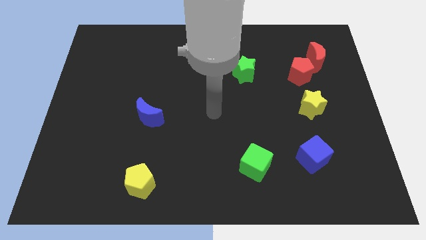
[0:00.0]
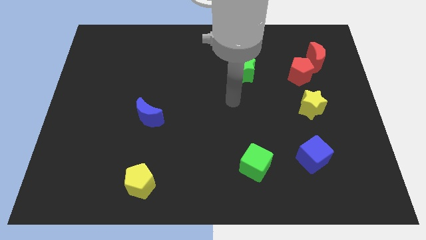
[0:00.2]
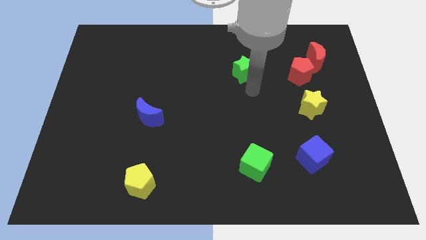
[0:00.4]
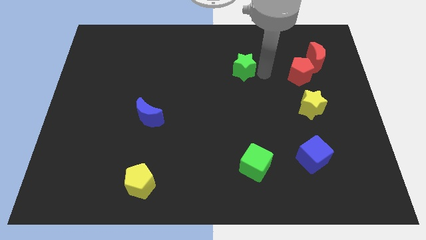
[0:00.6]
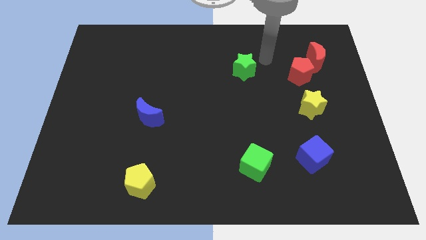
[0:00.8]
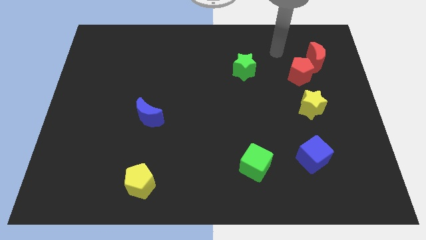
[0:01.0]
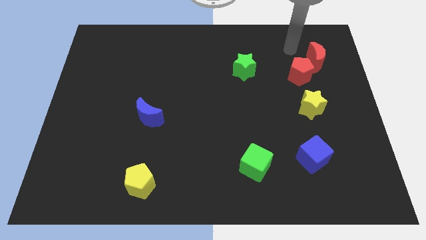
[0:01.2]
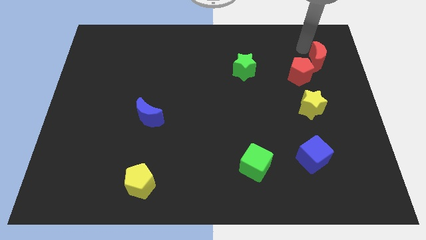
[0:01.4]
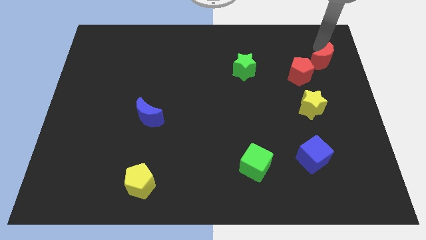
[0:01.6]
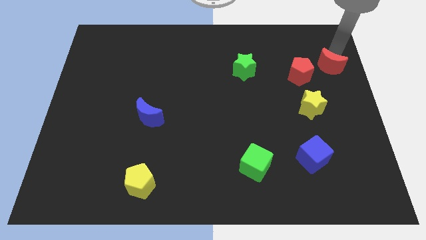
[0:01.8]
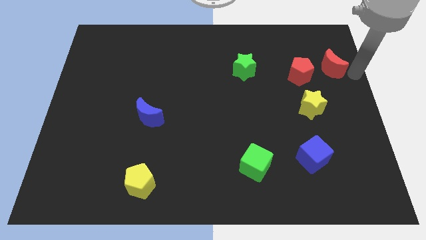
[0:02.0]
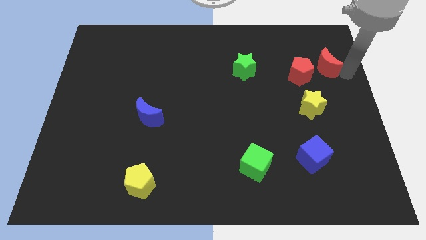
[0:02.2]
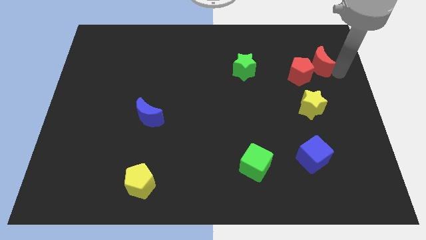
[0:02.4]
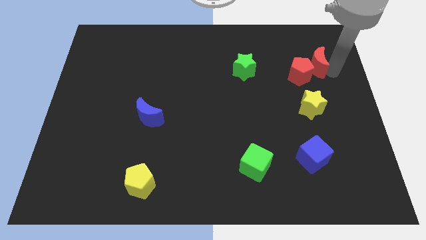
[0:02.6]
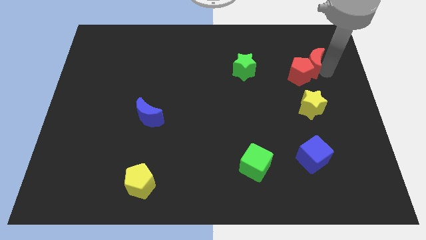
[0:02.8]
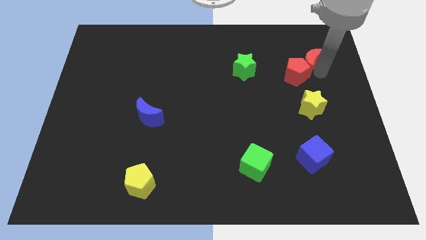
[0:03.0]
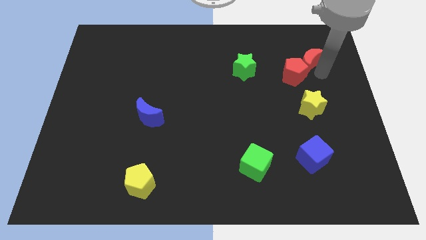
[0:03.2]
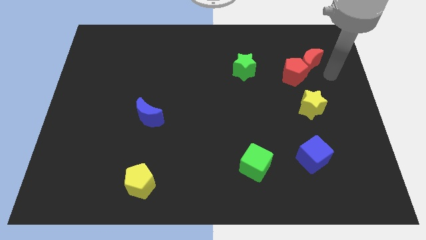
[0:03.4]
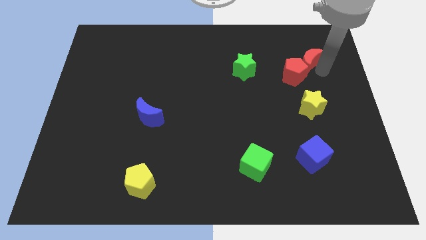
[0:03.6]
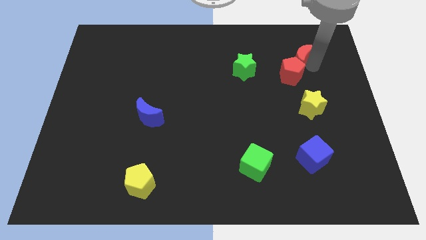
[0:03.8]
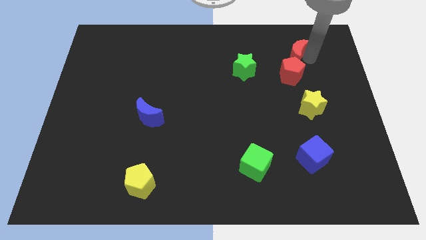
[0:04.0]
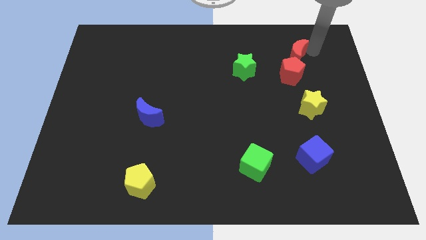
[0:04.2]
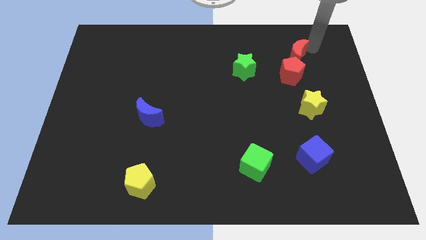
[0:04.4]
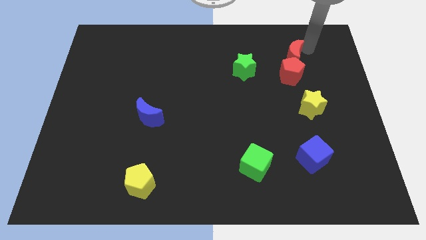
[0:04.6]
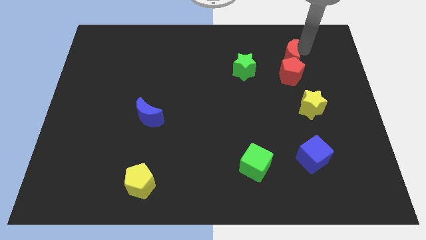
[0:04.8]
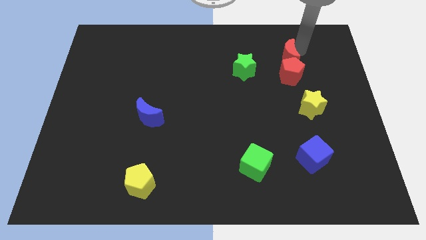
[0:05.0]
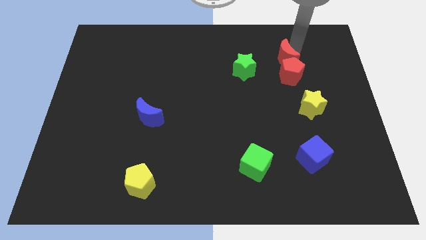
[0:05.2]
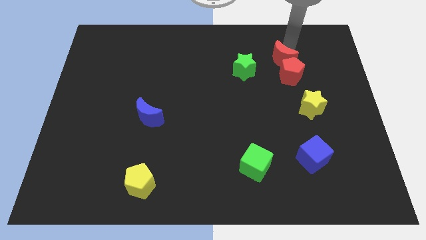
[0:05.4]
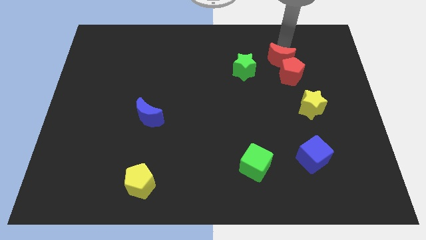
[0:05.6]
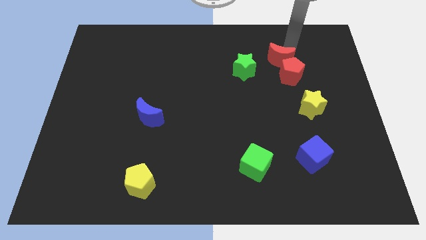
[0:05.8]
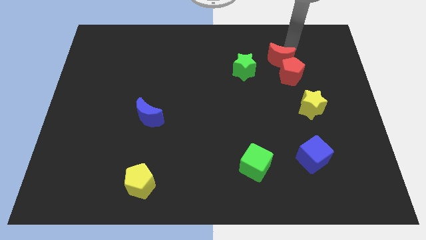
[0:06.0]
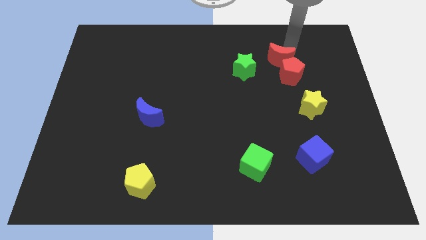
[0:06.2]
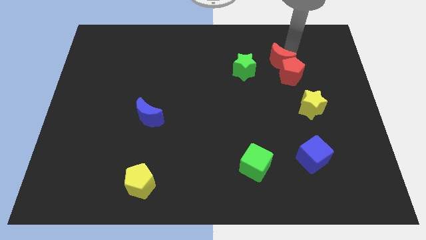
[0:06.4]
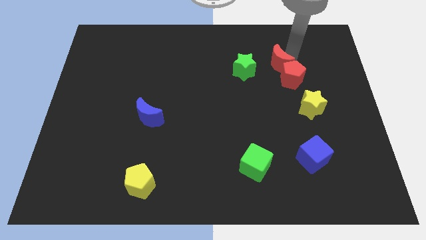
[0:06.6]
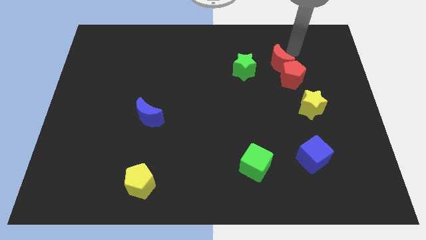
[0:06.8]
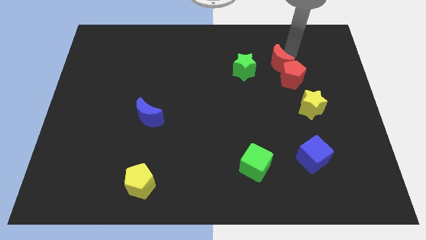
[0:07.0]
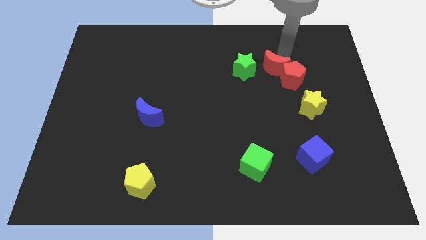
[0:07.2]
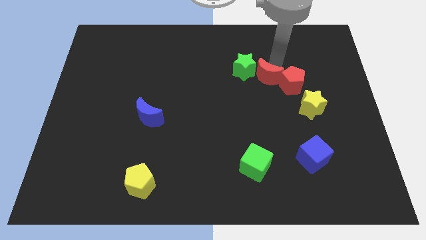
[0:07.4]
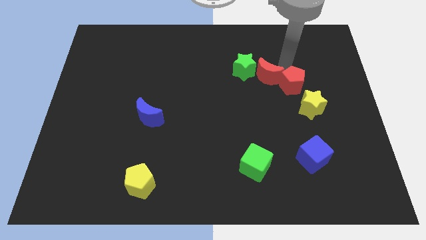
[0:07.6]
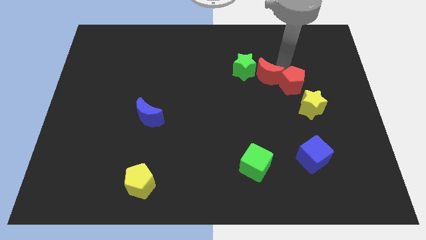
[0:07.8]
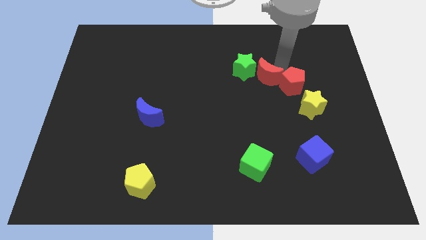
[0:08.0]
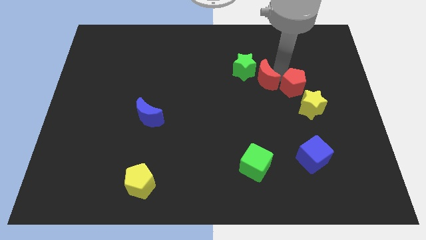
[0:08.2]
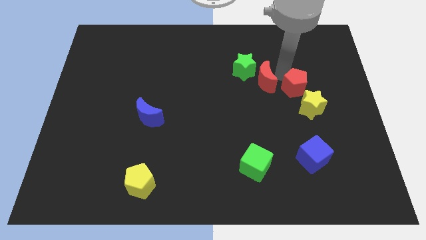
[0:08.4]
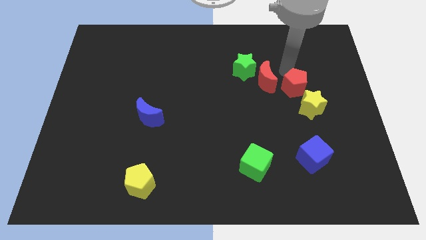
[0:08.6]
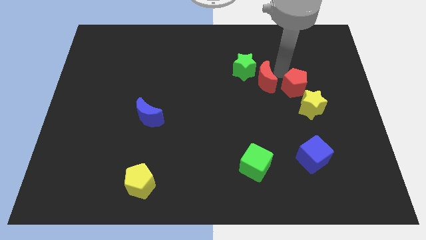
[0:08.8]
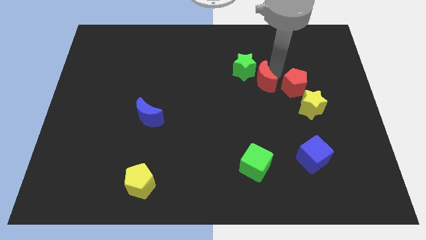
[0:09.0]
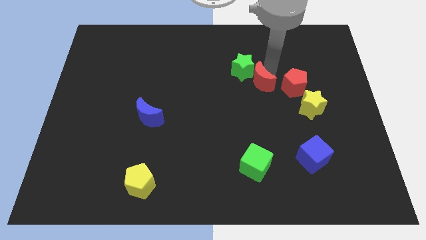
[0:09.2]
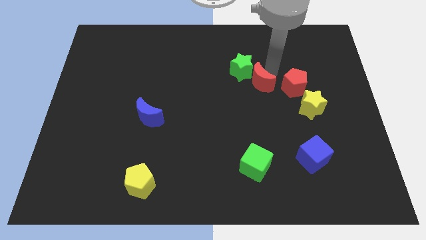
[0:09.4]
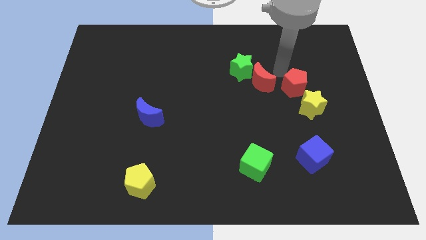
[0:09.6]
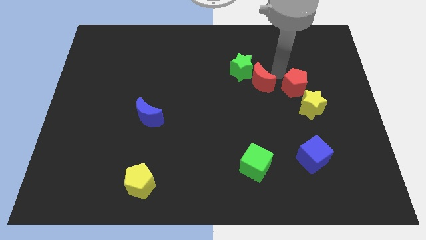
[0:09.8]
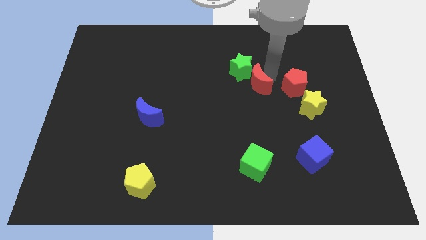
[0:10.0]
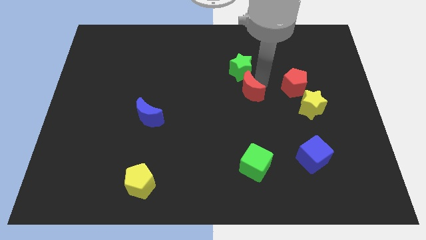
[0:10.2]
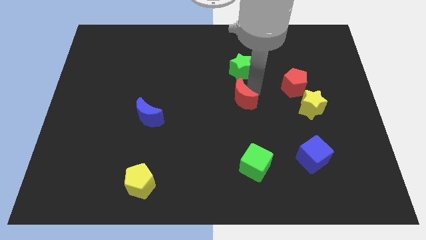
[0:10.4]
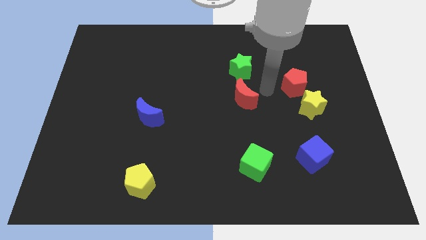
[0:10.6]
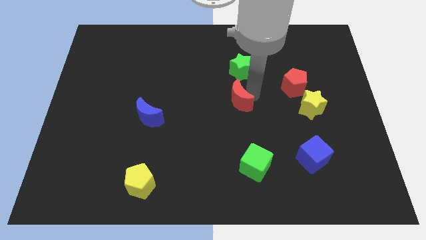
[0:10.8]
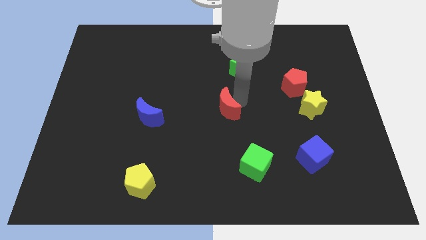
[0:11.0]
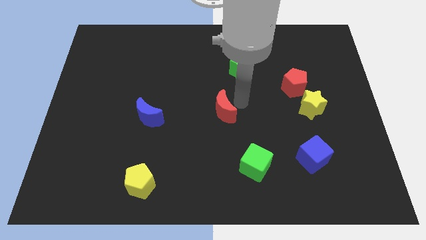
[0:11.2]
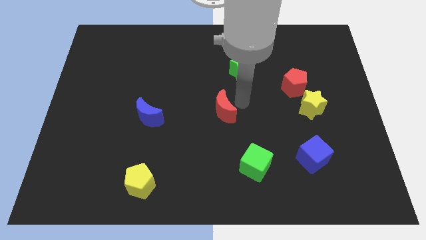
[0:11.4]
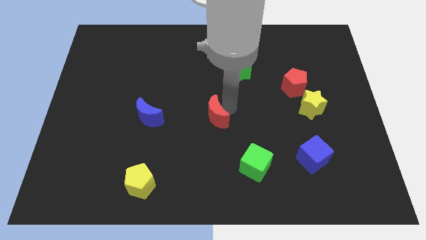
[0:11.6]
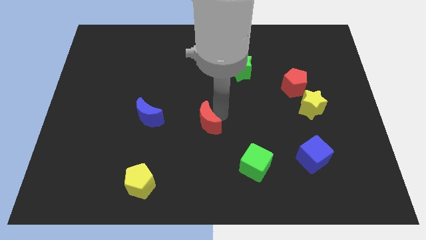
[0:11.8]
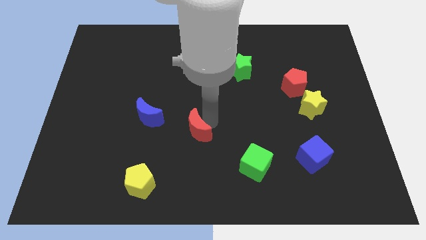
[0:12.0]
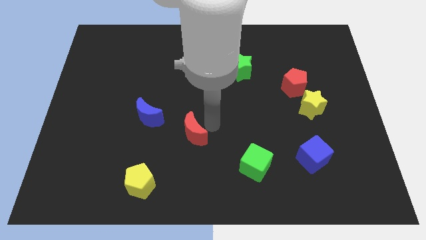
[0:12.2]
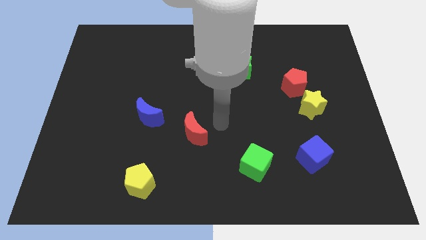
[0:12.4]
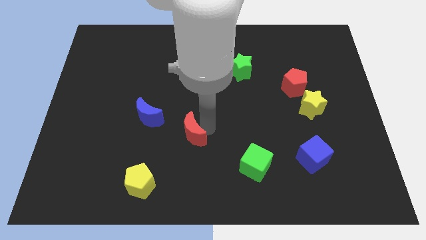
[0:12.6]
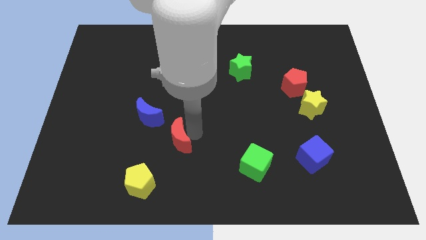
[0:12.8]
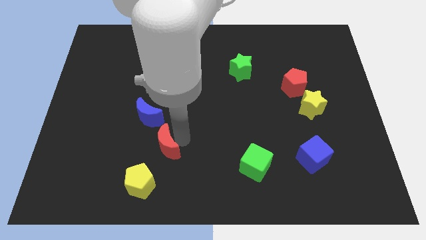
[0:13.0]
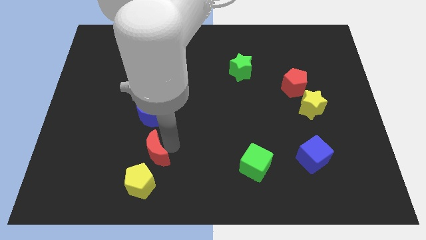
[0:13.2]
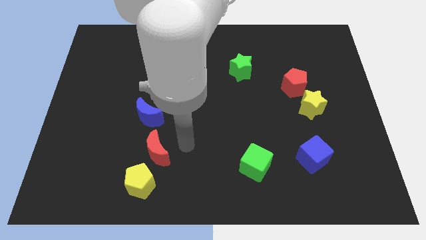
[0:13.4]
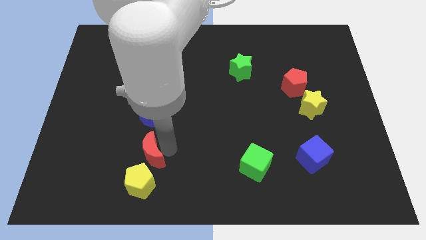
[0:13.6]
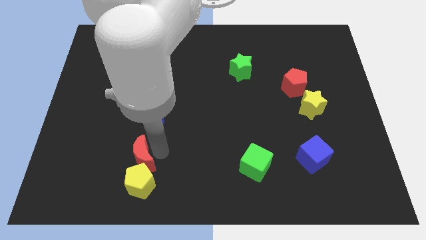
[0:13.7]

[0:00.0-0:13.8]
move the red moon diagonally up and to the left of the yellow pentagon

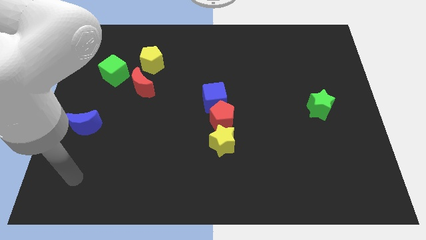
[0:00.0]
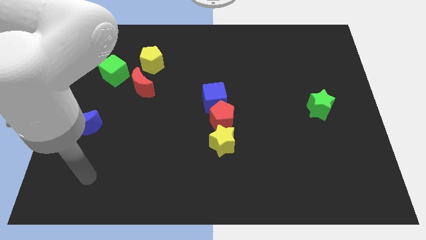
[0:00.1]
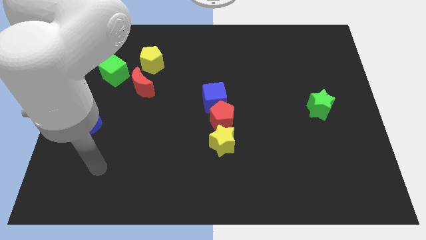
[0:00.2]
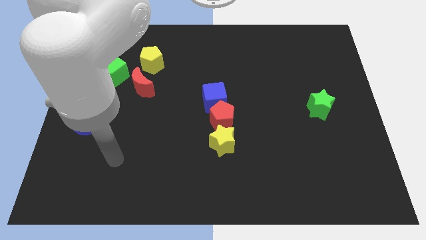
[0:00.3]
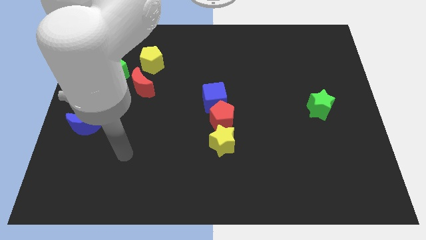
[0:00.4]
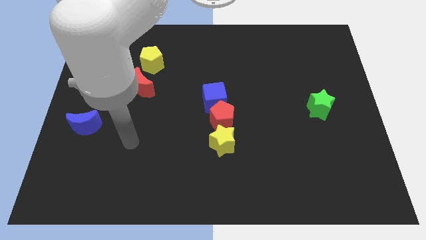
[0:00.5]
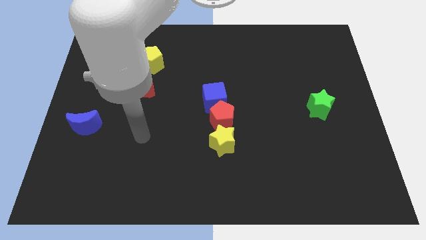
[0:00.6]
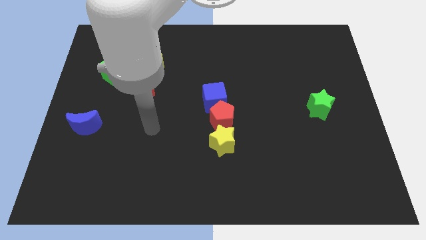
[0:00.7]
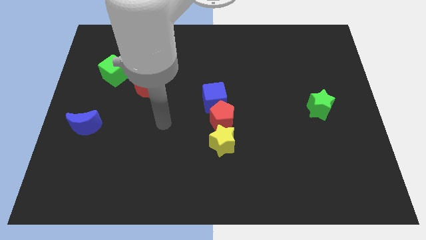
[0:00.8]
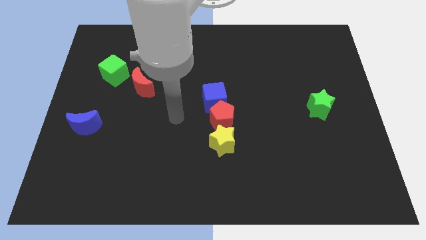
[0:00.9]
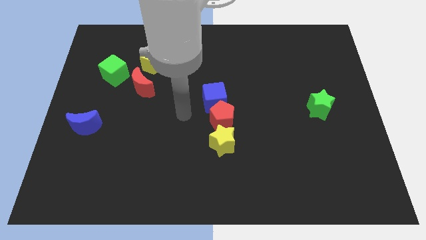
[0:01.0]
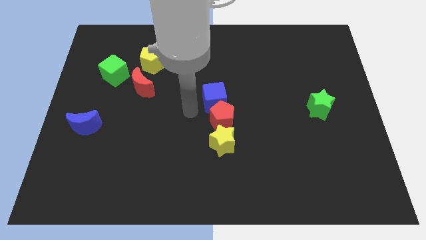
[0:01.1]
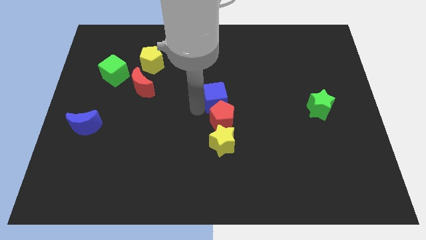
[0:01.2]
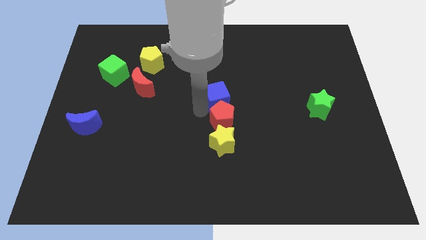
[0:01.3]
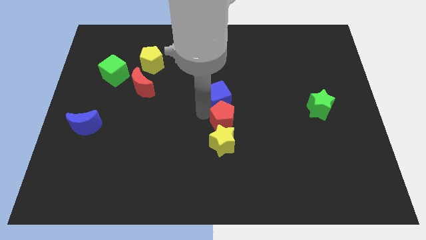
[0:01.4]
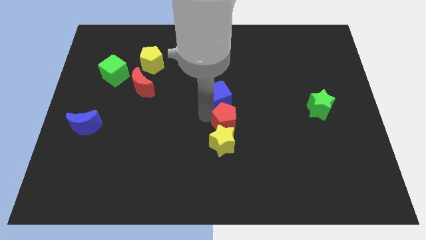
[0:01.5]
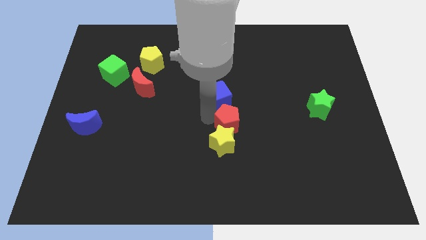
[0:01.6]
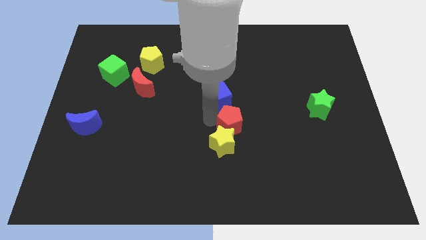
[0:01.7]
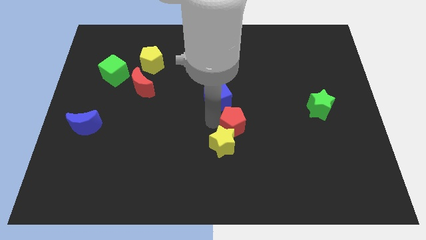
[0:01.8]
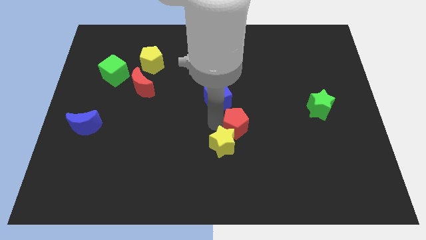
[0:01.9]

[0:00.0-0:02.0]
slide the red pentagon to the right side of the yellow star
